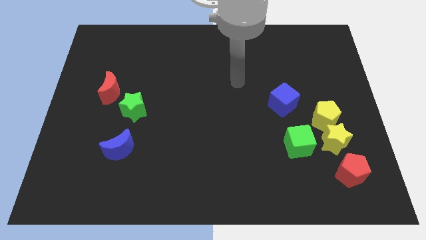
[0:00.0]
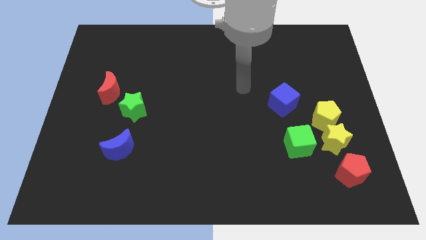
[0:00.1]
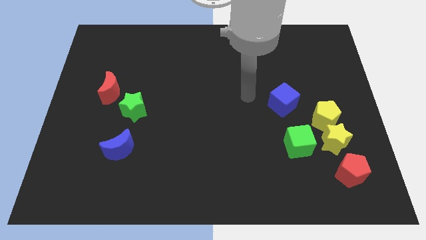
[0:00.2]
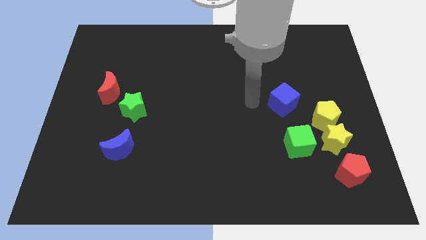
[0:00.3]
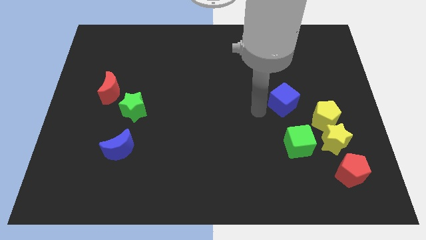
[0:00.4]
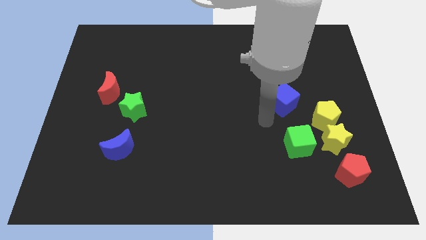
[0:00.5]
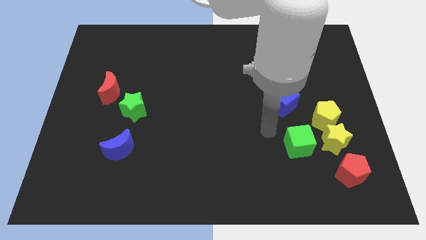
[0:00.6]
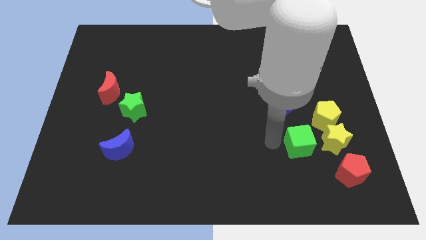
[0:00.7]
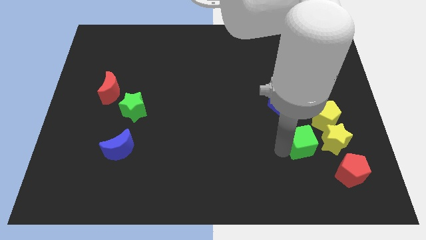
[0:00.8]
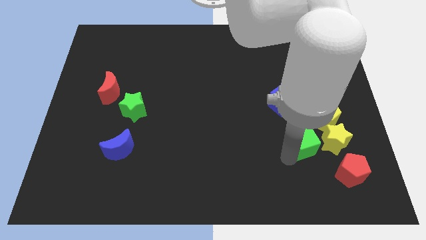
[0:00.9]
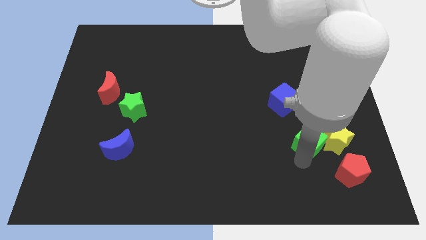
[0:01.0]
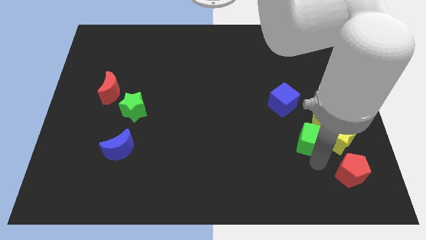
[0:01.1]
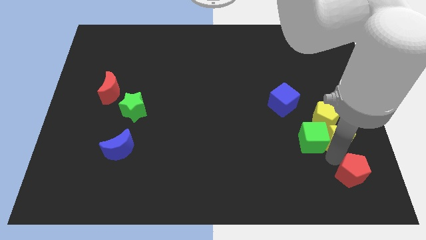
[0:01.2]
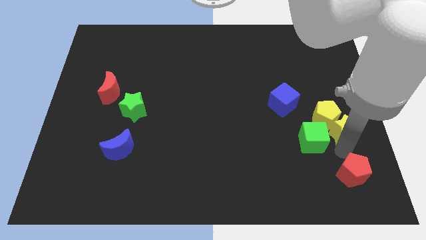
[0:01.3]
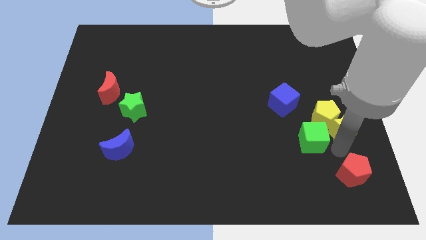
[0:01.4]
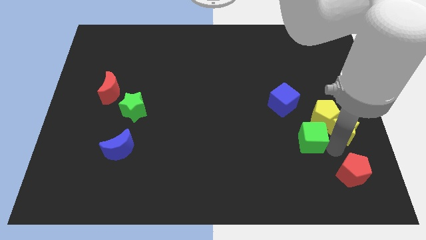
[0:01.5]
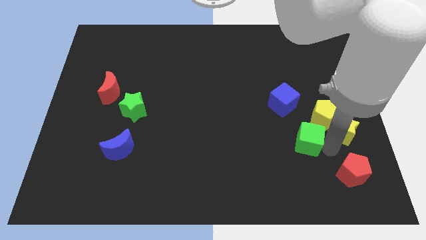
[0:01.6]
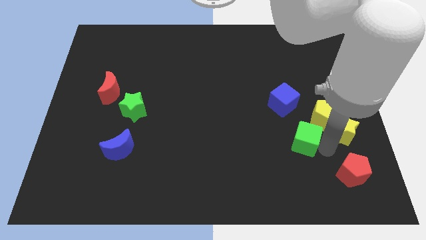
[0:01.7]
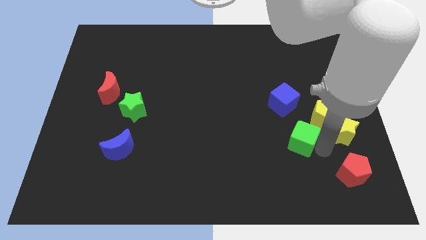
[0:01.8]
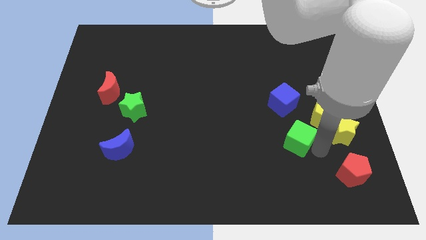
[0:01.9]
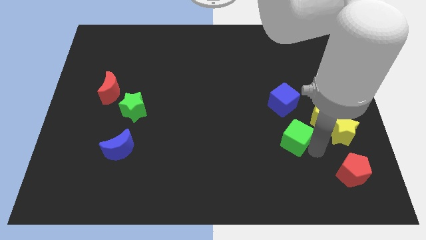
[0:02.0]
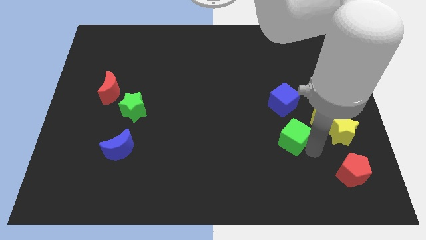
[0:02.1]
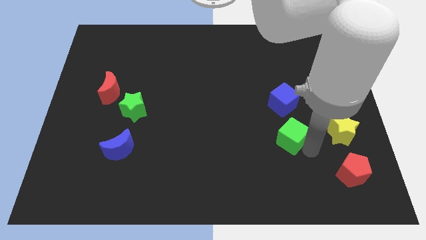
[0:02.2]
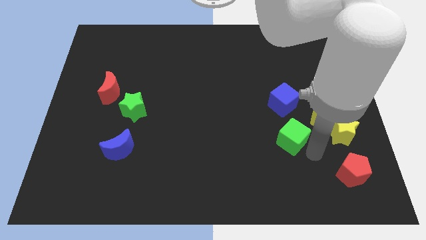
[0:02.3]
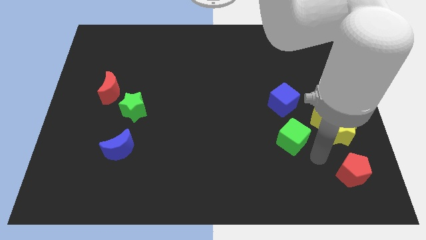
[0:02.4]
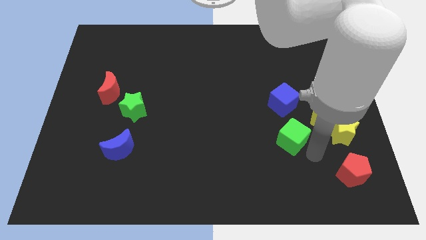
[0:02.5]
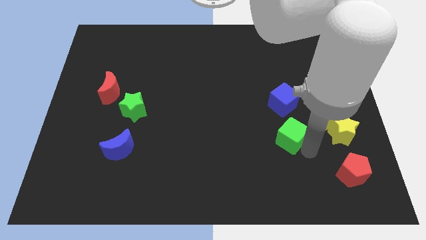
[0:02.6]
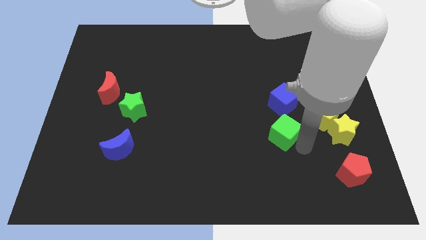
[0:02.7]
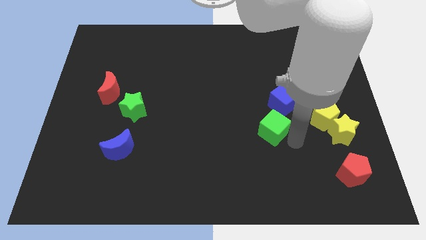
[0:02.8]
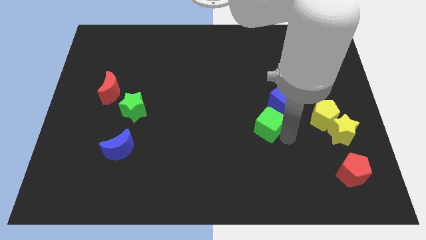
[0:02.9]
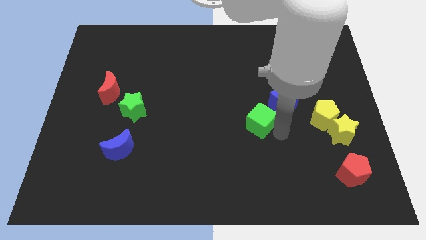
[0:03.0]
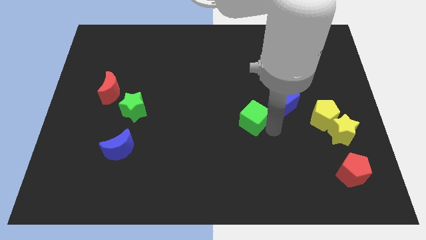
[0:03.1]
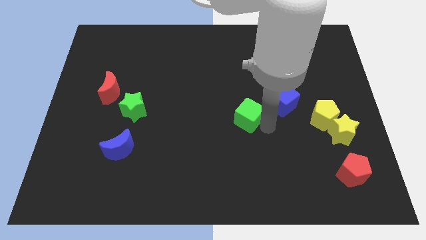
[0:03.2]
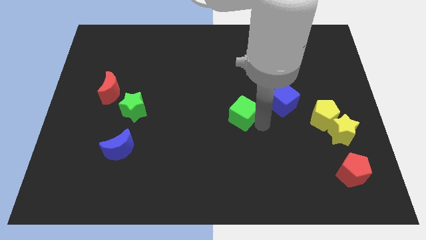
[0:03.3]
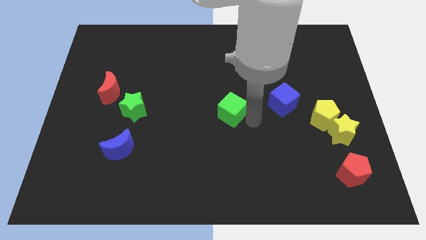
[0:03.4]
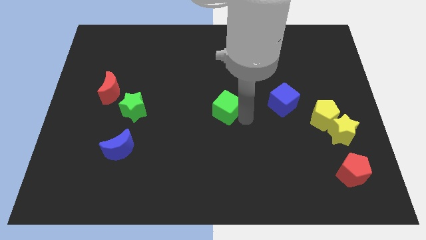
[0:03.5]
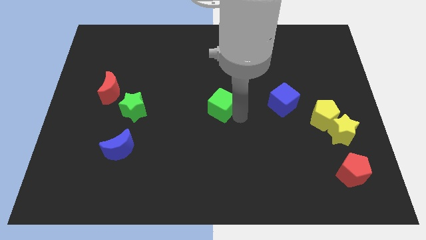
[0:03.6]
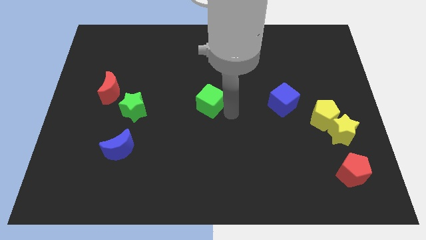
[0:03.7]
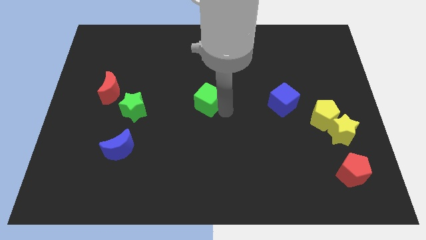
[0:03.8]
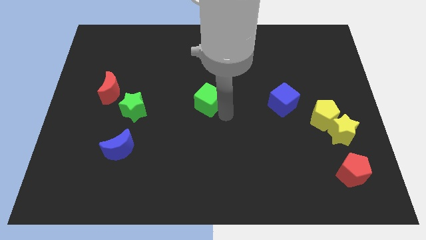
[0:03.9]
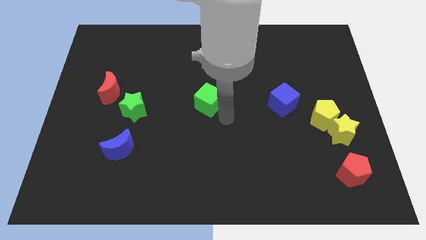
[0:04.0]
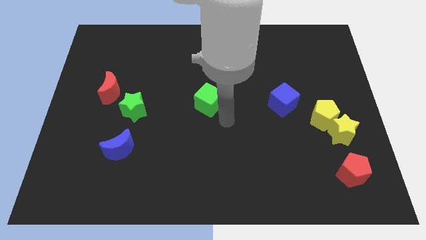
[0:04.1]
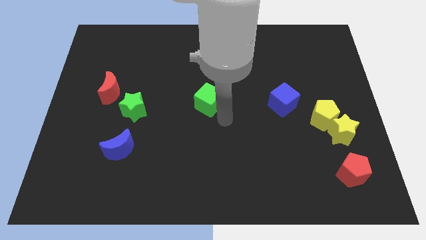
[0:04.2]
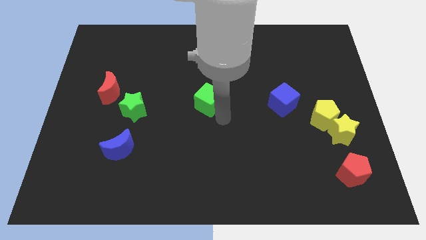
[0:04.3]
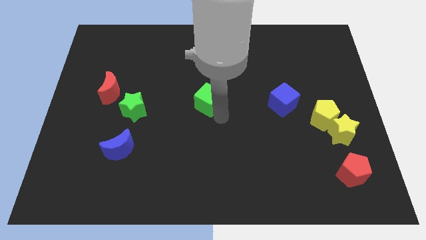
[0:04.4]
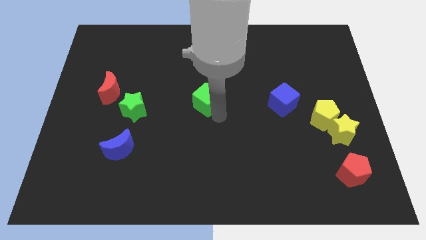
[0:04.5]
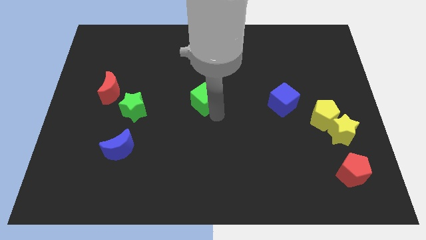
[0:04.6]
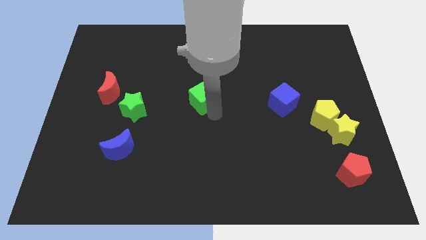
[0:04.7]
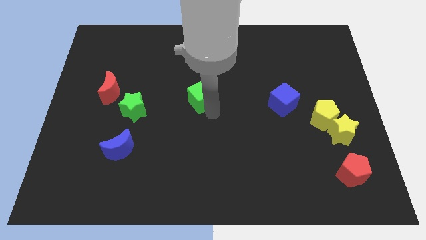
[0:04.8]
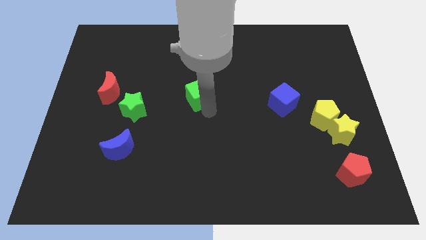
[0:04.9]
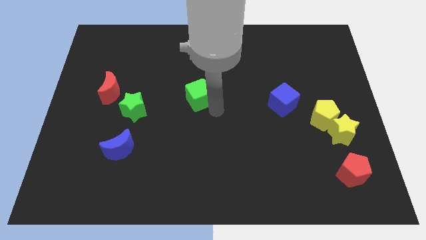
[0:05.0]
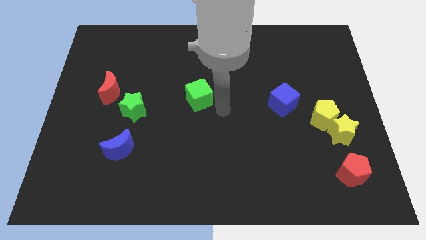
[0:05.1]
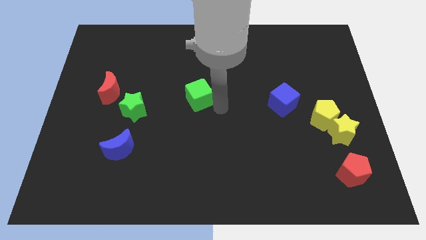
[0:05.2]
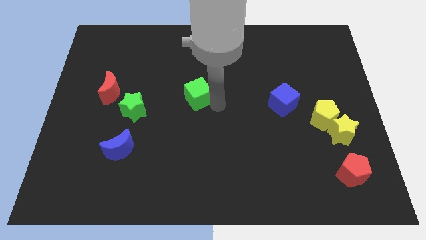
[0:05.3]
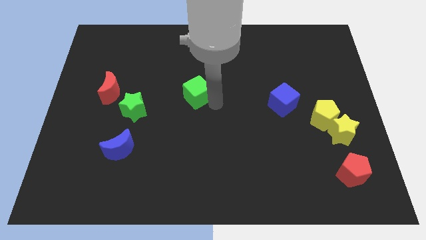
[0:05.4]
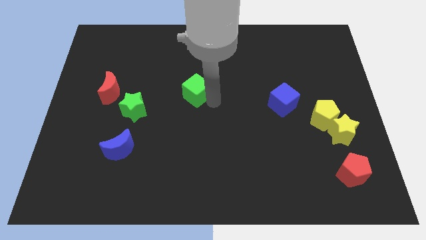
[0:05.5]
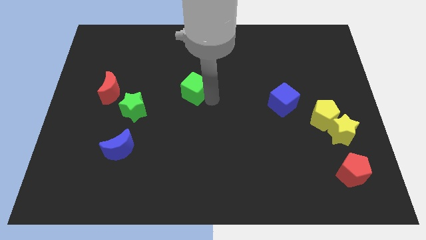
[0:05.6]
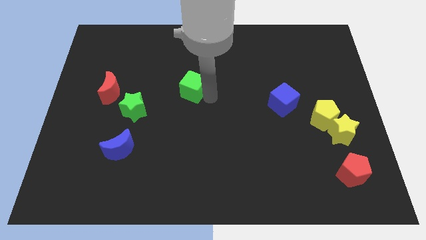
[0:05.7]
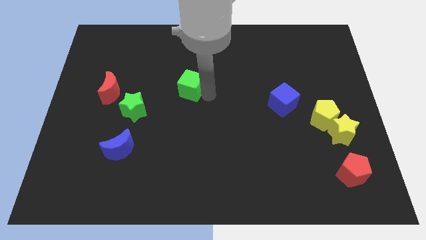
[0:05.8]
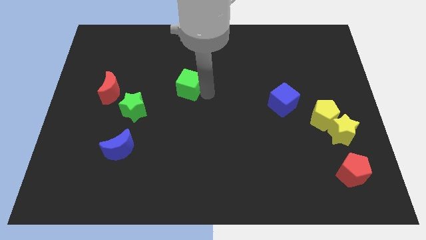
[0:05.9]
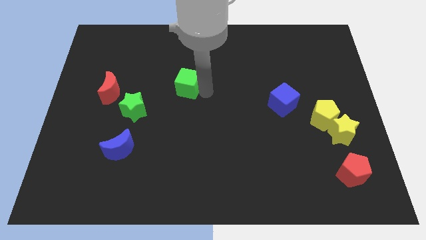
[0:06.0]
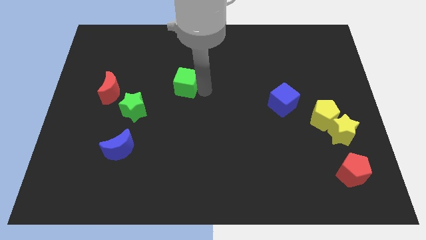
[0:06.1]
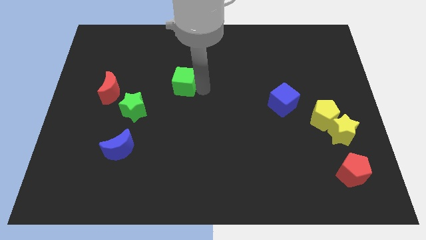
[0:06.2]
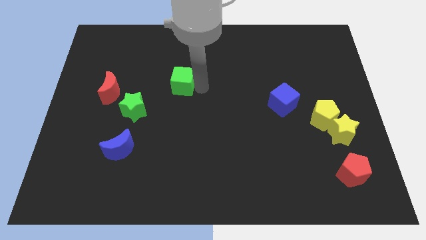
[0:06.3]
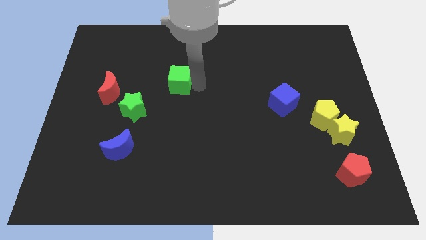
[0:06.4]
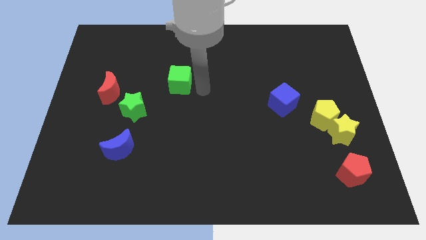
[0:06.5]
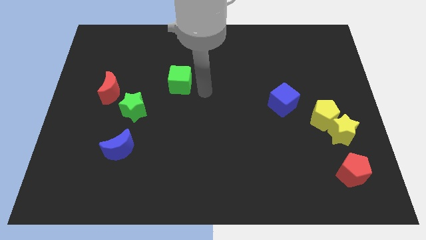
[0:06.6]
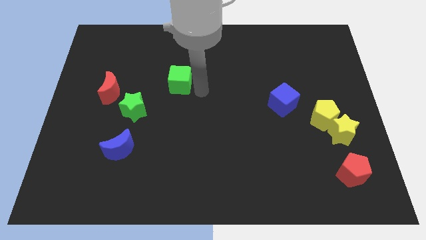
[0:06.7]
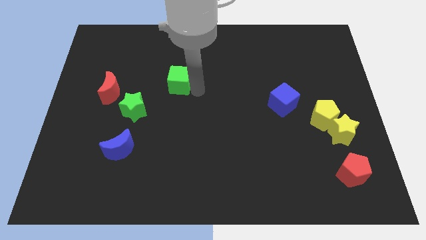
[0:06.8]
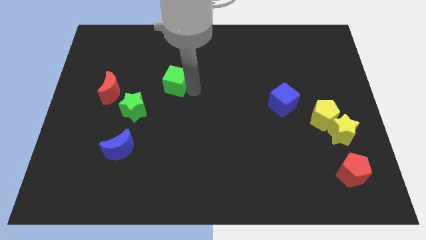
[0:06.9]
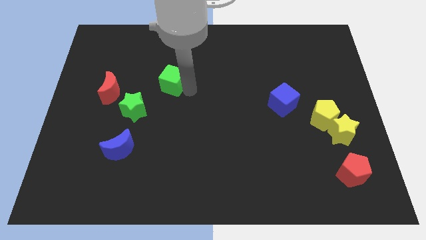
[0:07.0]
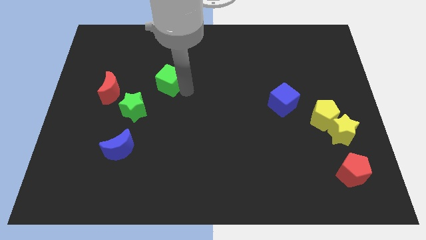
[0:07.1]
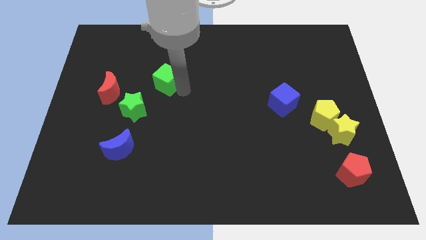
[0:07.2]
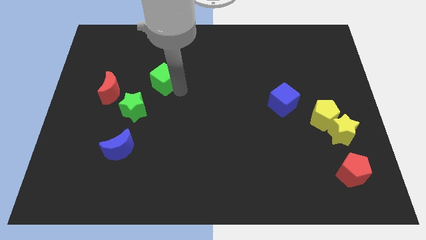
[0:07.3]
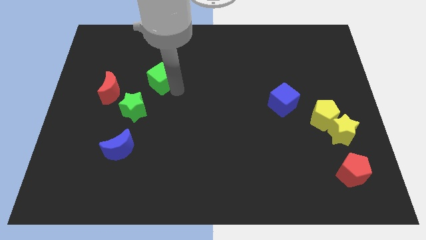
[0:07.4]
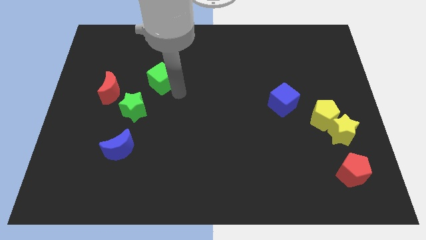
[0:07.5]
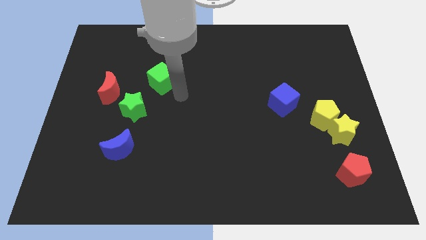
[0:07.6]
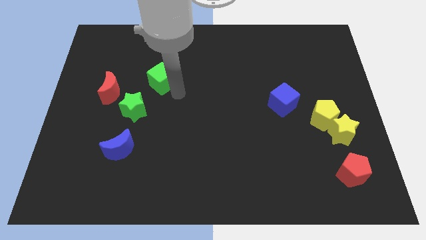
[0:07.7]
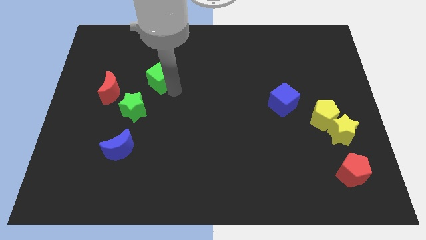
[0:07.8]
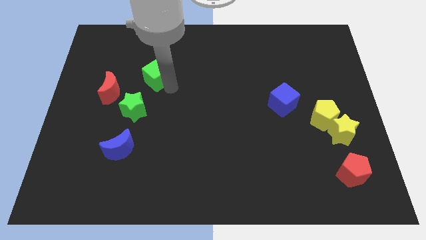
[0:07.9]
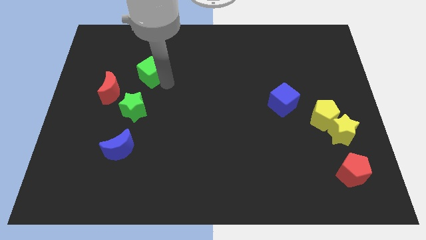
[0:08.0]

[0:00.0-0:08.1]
put the green cube to the top right of the red moon

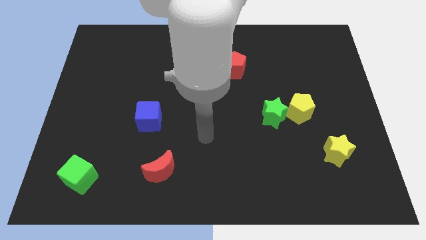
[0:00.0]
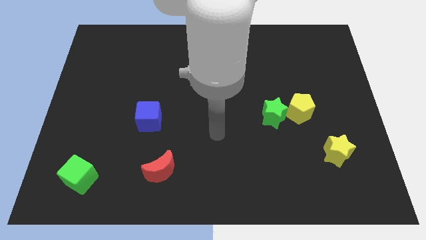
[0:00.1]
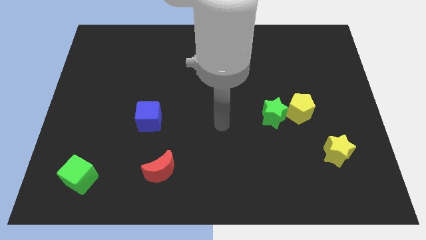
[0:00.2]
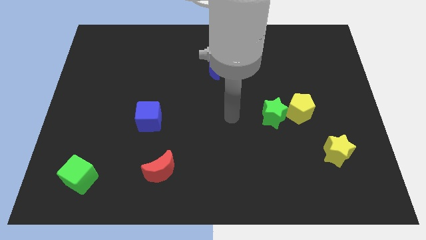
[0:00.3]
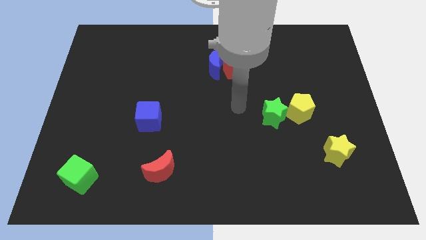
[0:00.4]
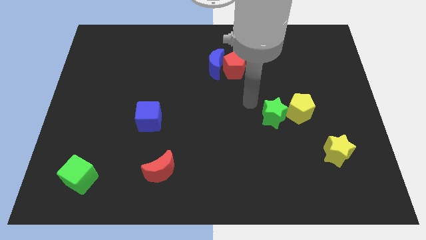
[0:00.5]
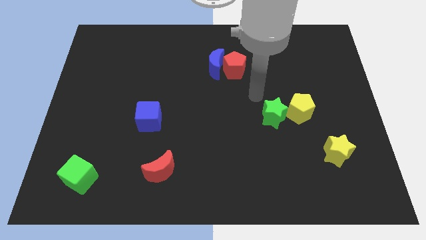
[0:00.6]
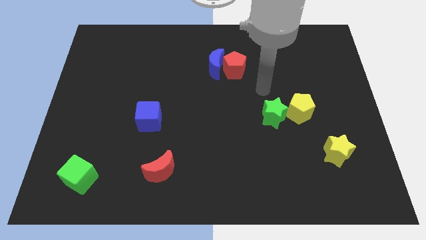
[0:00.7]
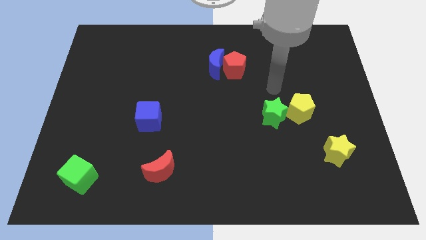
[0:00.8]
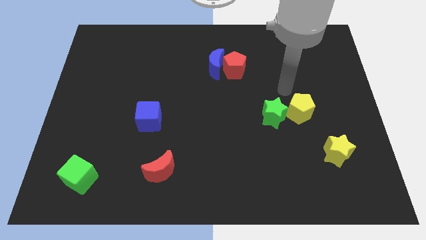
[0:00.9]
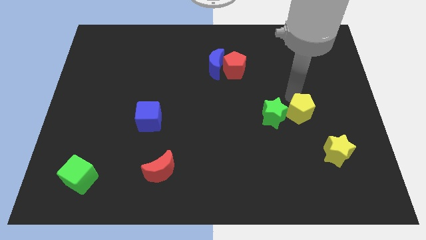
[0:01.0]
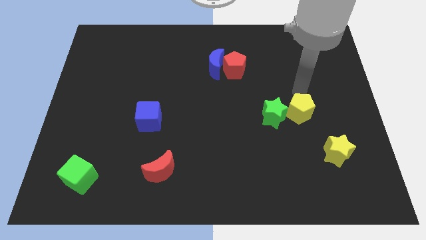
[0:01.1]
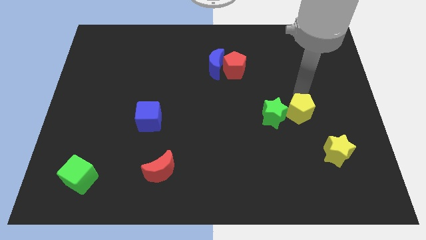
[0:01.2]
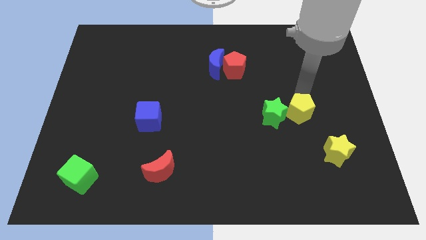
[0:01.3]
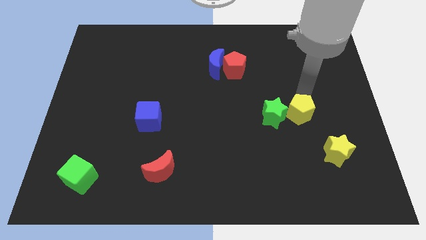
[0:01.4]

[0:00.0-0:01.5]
put the yellow pentagon to the bottom right side of the green star
